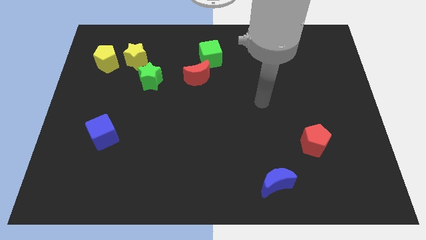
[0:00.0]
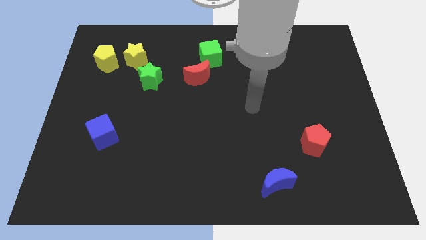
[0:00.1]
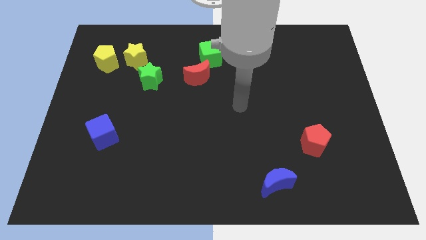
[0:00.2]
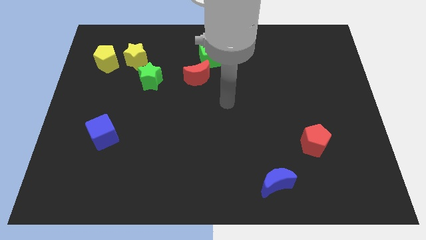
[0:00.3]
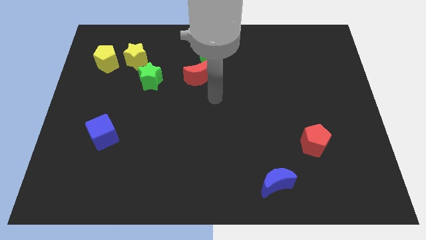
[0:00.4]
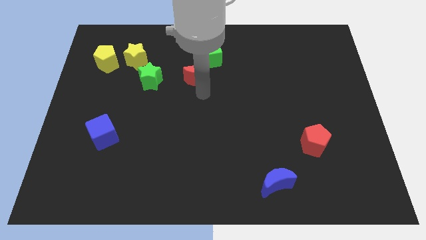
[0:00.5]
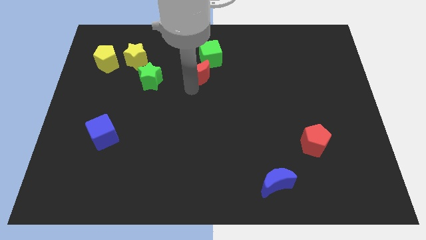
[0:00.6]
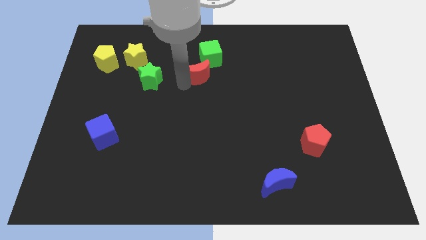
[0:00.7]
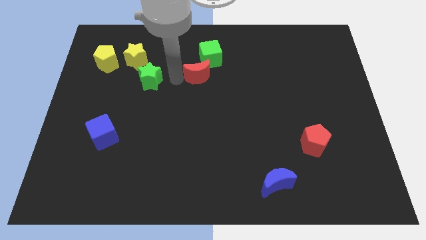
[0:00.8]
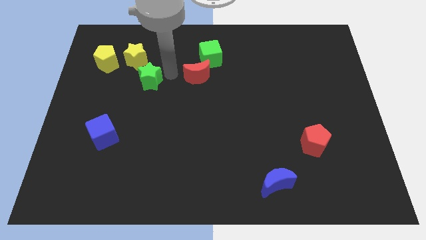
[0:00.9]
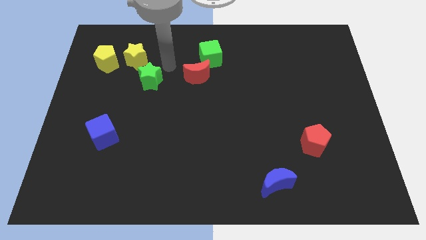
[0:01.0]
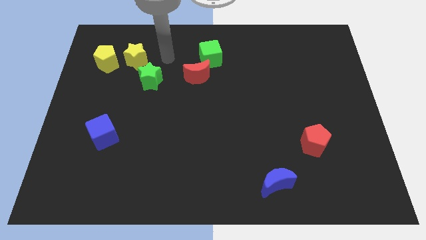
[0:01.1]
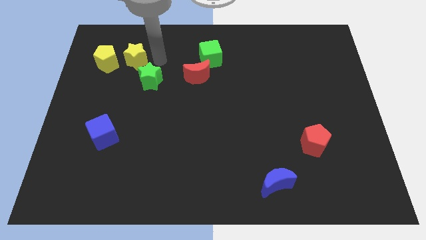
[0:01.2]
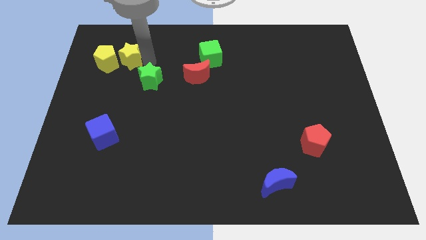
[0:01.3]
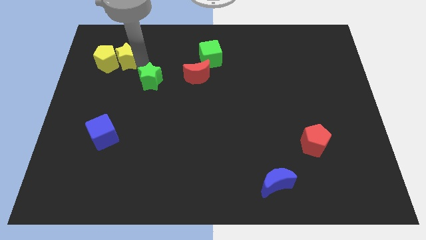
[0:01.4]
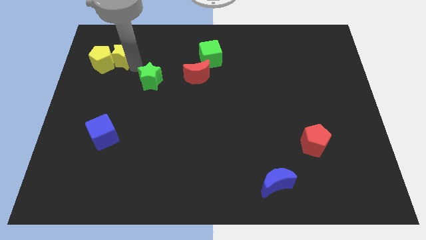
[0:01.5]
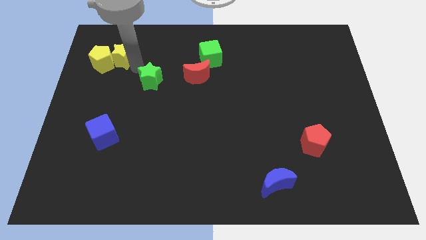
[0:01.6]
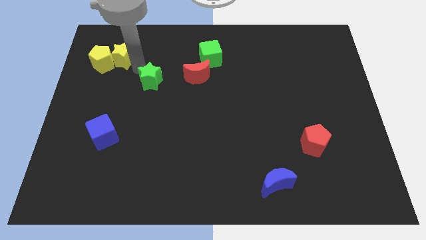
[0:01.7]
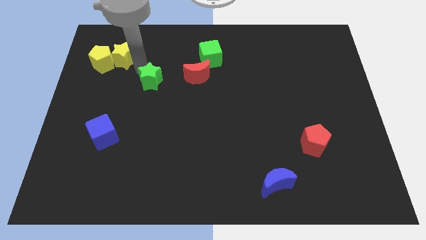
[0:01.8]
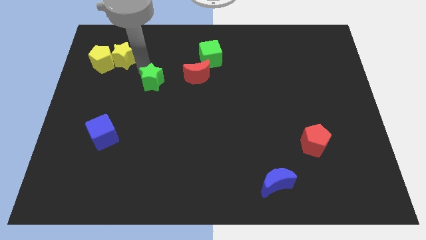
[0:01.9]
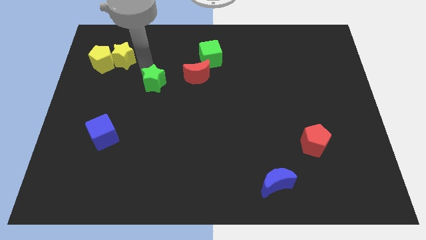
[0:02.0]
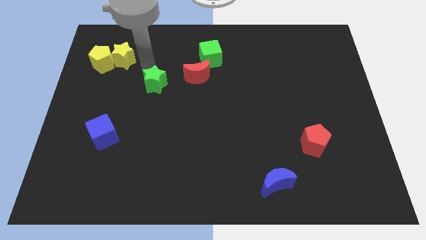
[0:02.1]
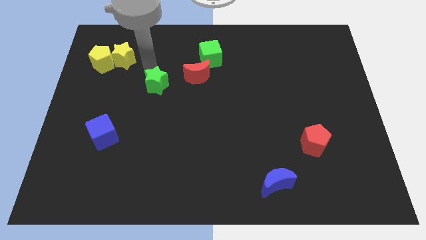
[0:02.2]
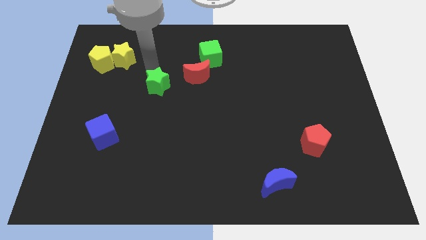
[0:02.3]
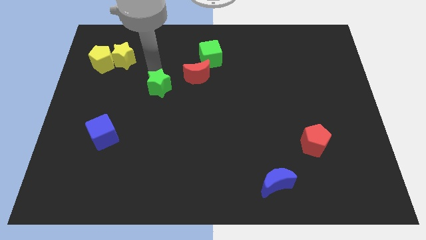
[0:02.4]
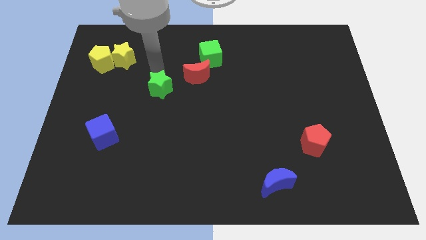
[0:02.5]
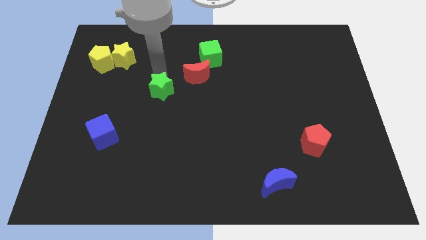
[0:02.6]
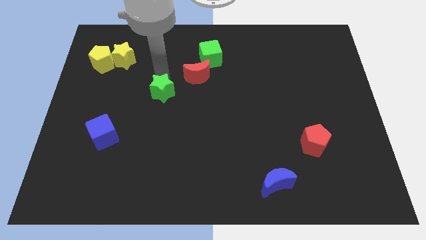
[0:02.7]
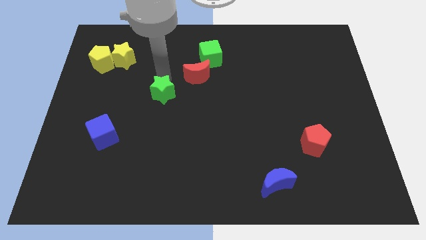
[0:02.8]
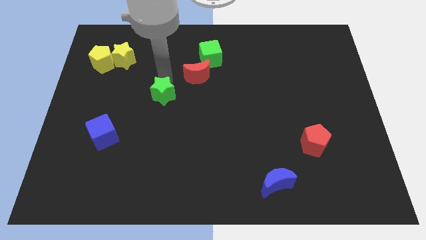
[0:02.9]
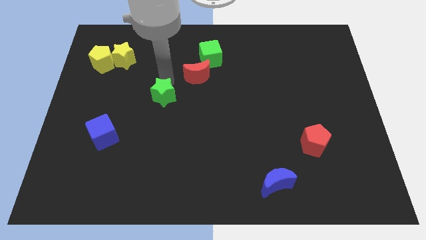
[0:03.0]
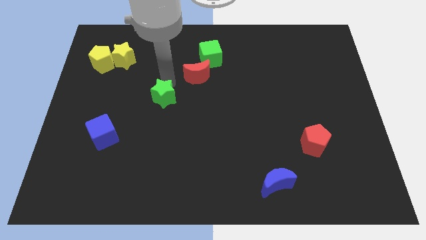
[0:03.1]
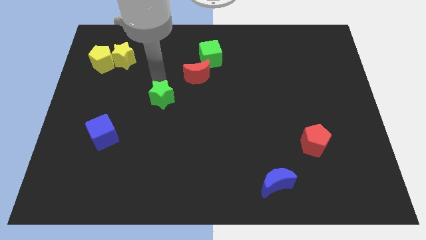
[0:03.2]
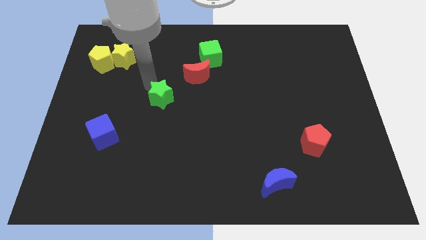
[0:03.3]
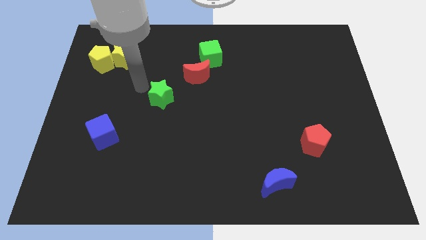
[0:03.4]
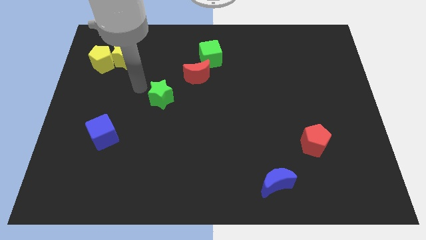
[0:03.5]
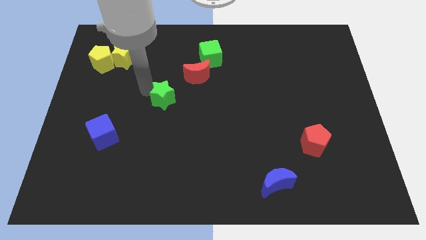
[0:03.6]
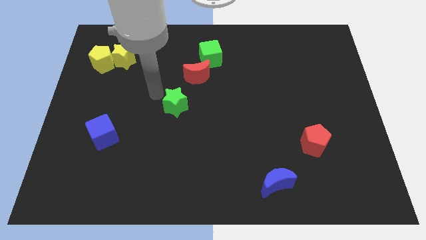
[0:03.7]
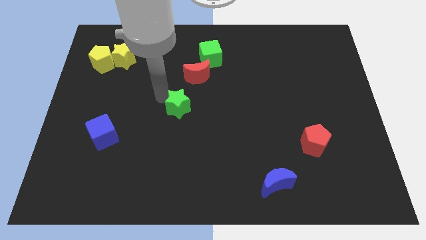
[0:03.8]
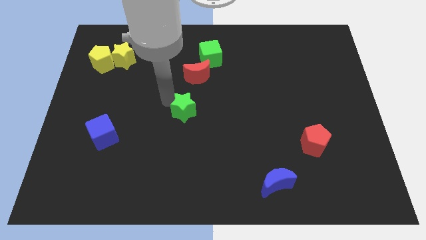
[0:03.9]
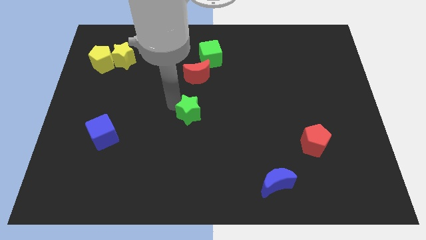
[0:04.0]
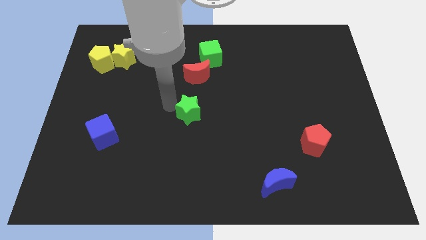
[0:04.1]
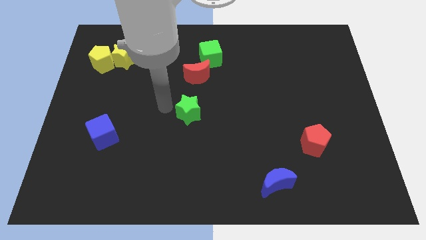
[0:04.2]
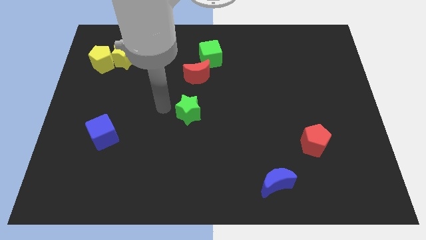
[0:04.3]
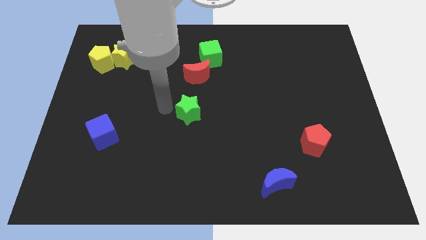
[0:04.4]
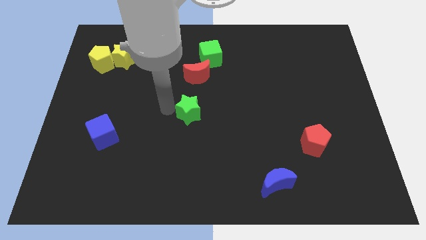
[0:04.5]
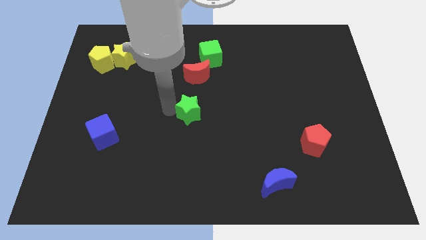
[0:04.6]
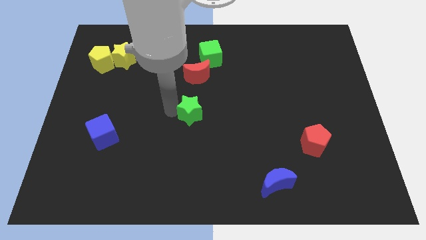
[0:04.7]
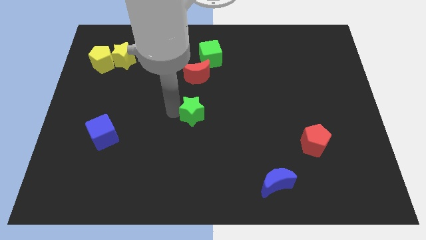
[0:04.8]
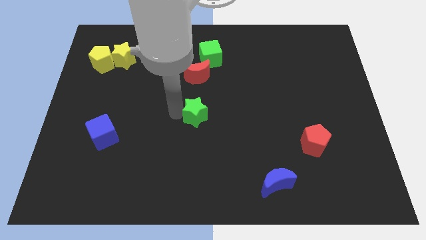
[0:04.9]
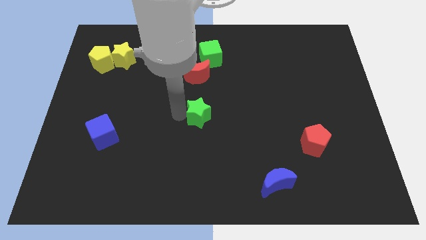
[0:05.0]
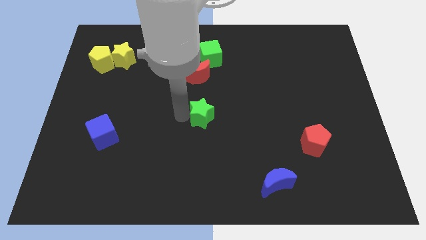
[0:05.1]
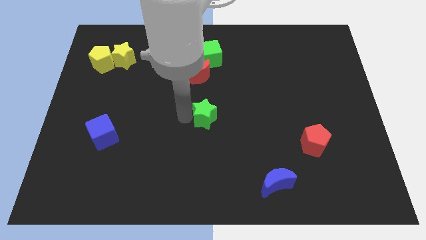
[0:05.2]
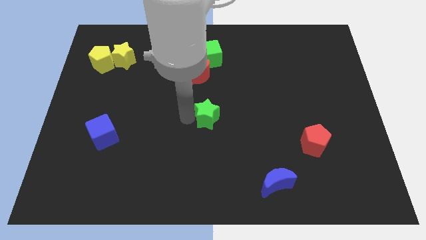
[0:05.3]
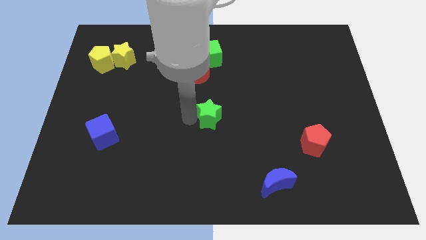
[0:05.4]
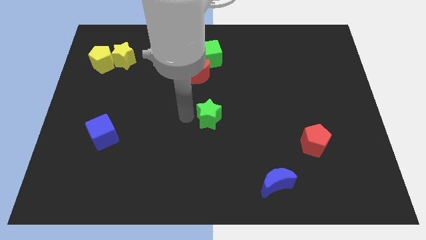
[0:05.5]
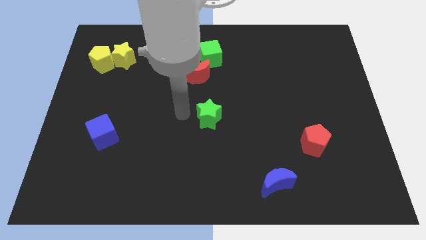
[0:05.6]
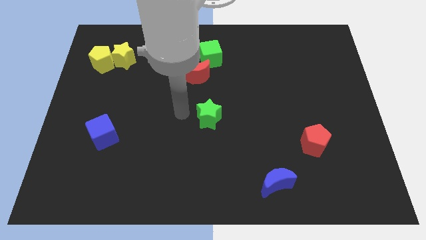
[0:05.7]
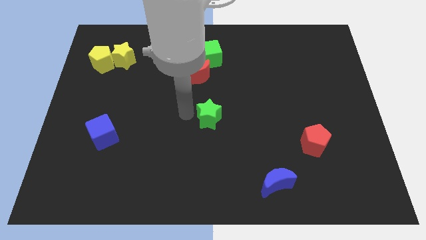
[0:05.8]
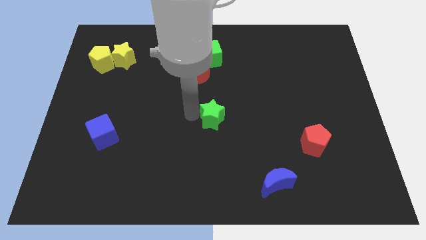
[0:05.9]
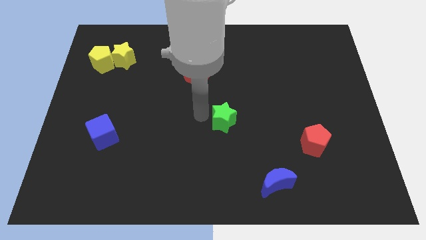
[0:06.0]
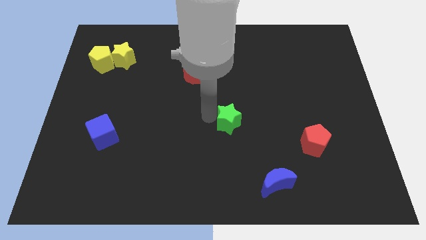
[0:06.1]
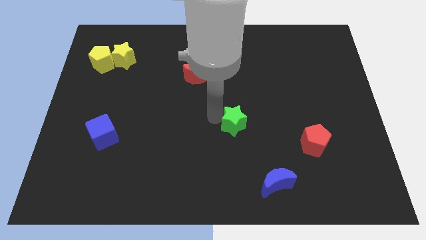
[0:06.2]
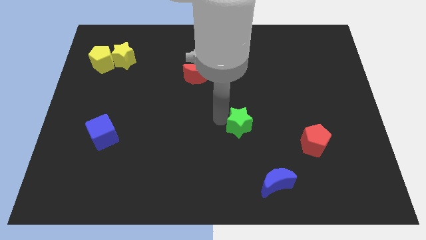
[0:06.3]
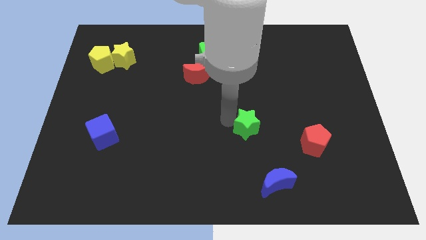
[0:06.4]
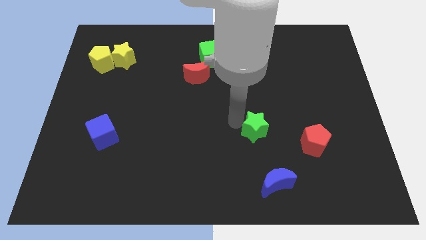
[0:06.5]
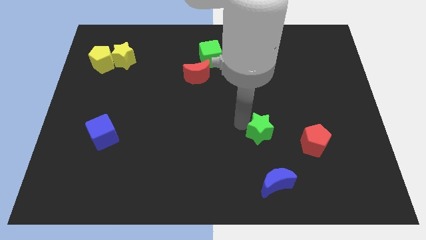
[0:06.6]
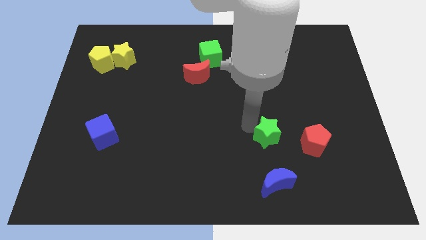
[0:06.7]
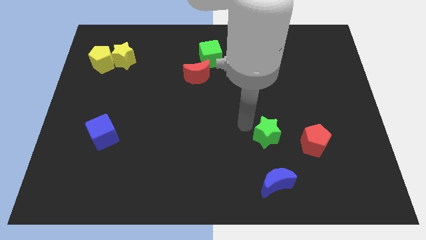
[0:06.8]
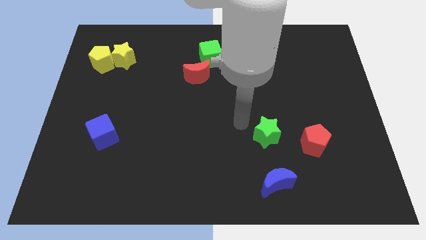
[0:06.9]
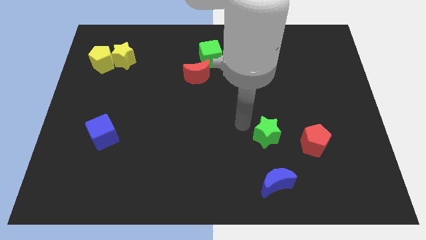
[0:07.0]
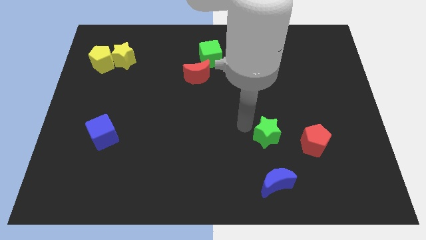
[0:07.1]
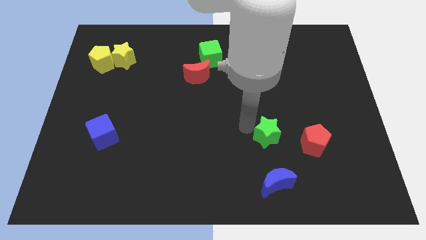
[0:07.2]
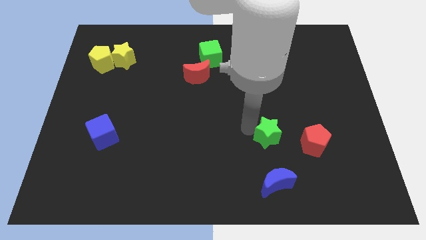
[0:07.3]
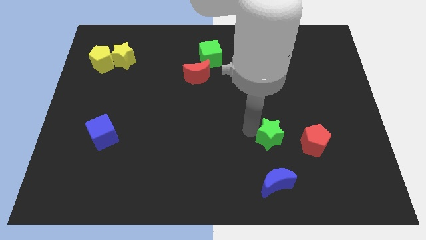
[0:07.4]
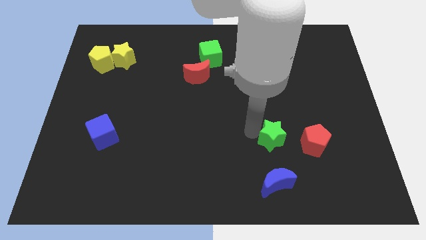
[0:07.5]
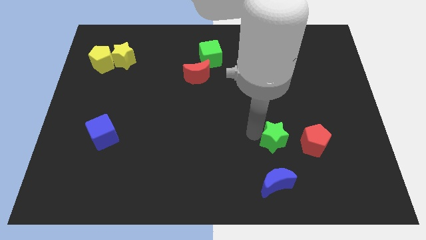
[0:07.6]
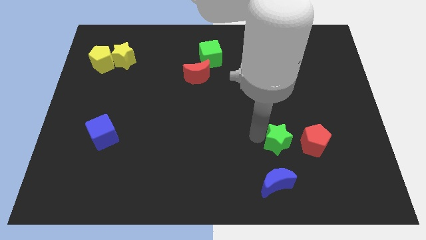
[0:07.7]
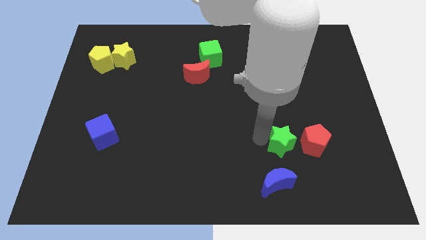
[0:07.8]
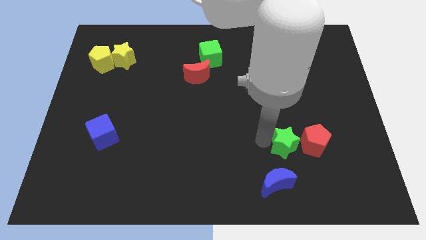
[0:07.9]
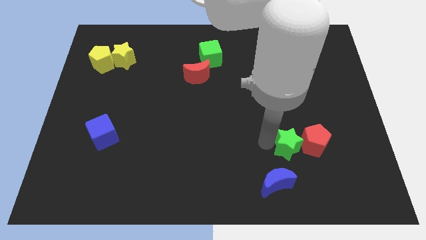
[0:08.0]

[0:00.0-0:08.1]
move the green star next to the red pentagon
